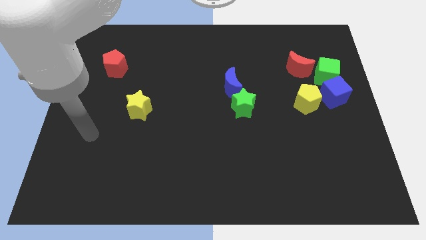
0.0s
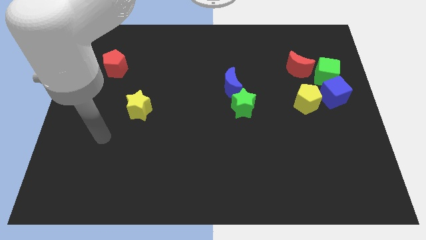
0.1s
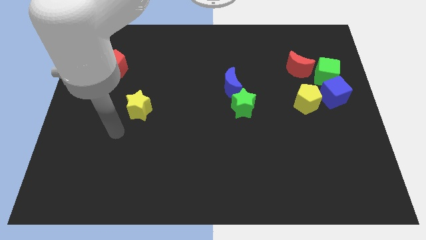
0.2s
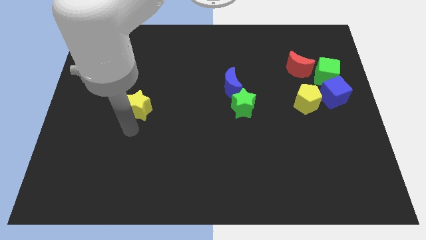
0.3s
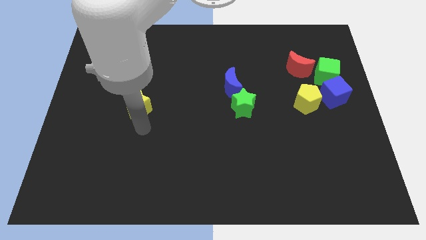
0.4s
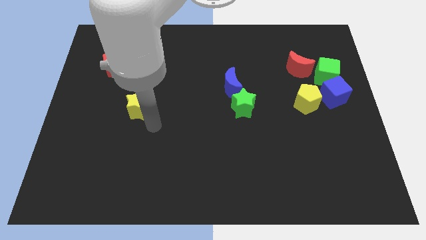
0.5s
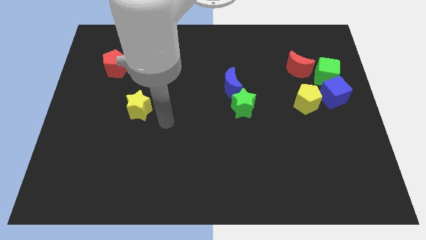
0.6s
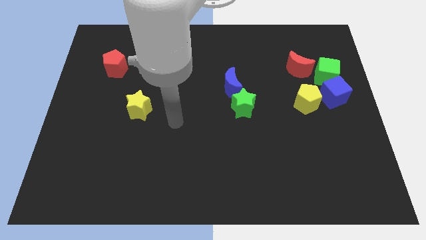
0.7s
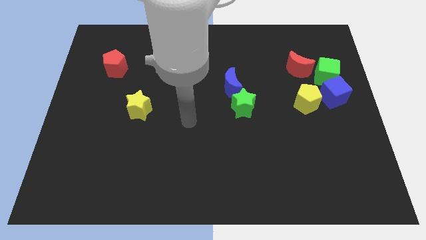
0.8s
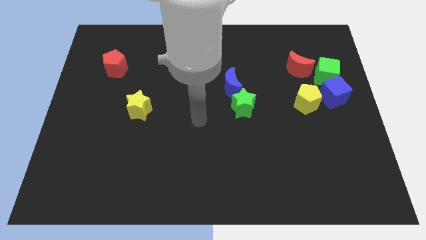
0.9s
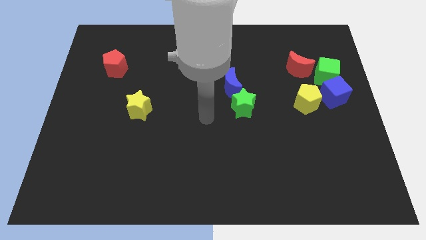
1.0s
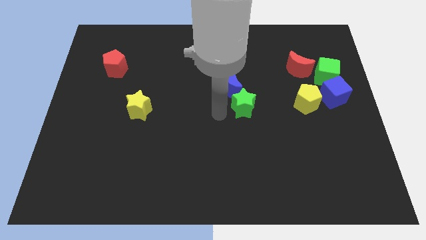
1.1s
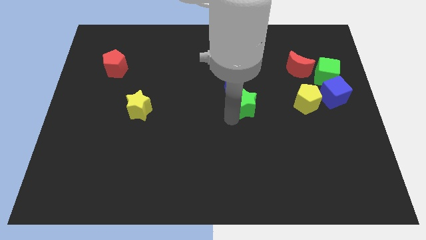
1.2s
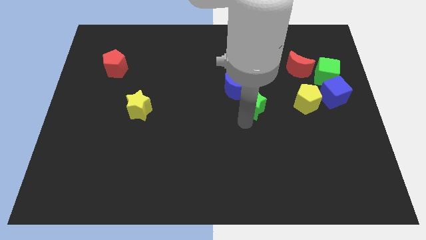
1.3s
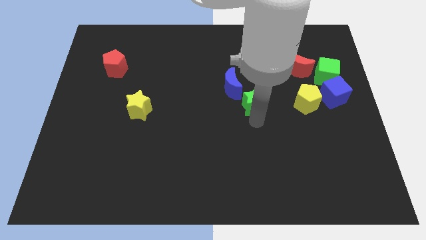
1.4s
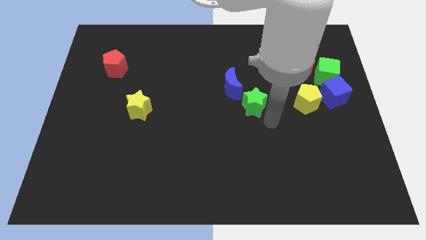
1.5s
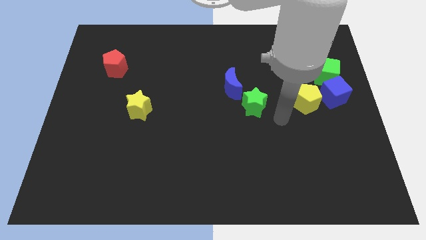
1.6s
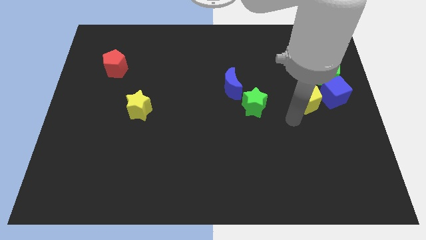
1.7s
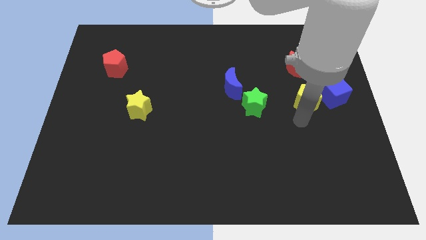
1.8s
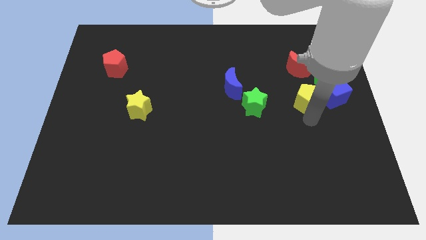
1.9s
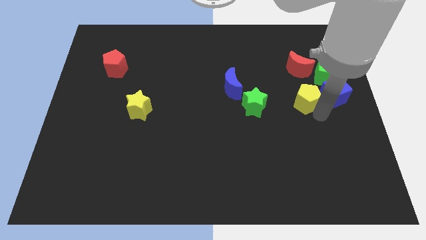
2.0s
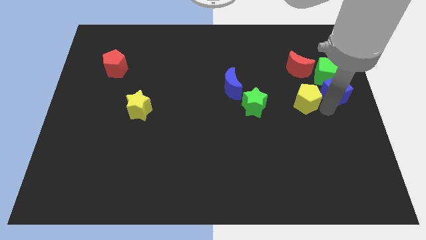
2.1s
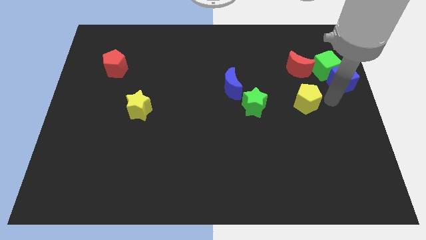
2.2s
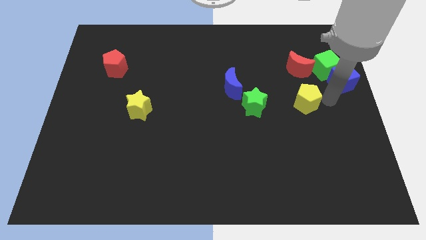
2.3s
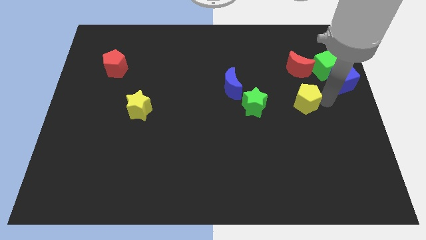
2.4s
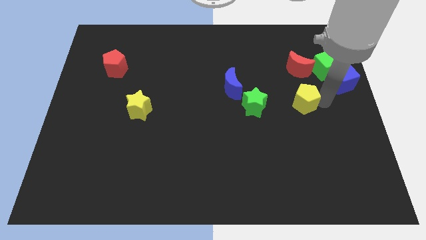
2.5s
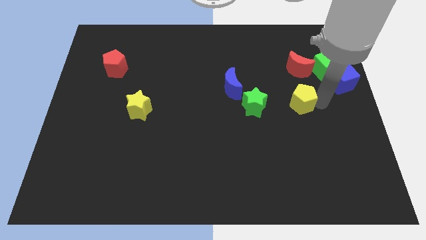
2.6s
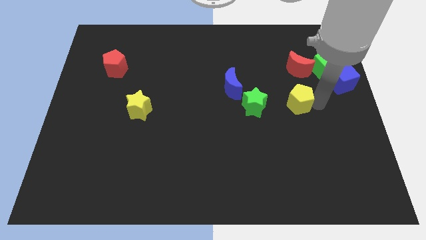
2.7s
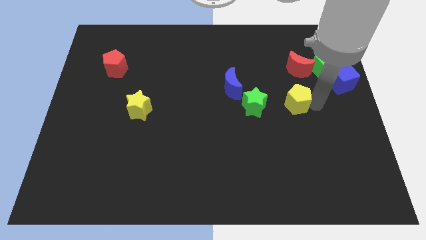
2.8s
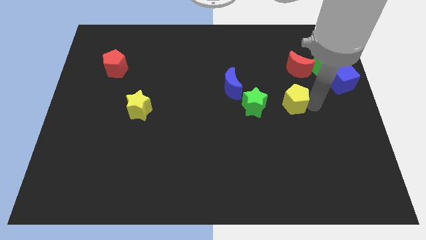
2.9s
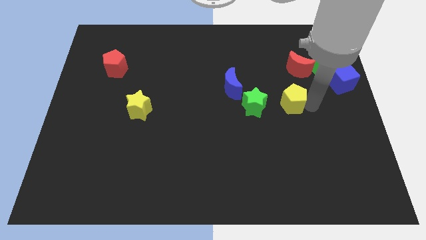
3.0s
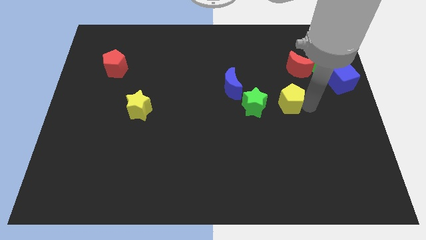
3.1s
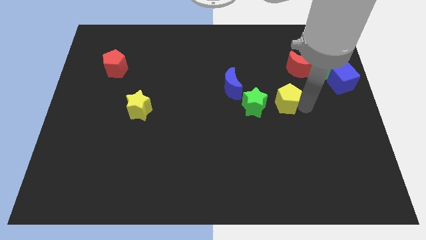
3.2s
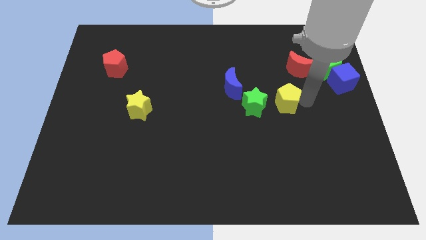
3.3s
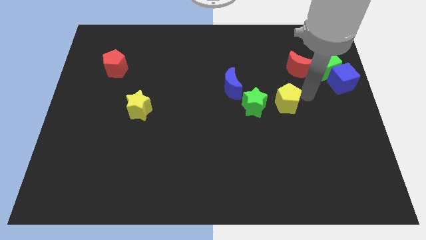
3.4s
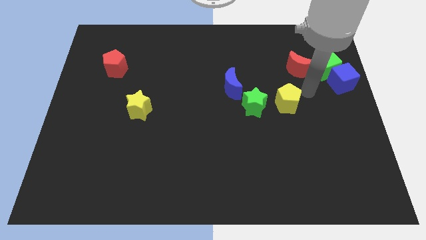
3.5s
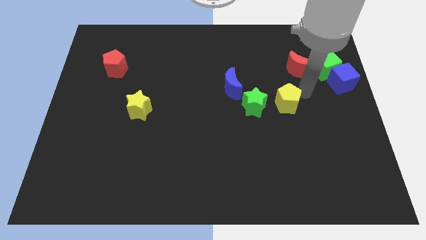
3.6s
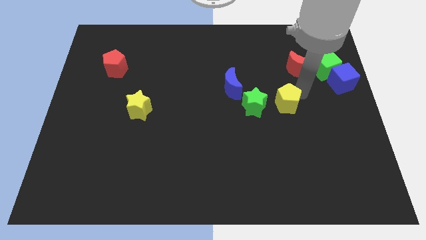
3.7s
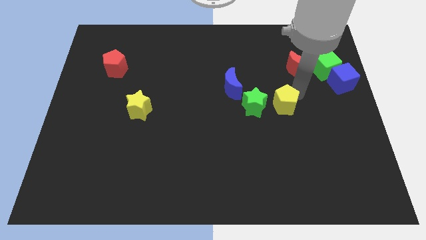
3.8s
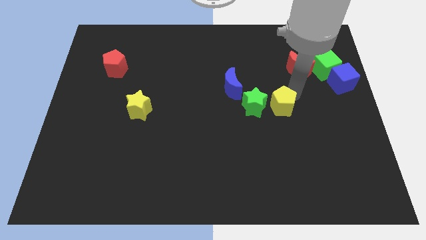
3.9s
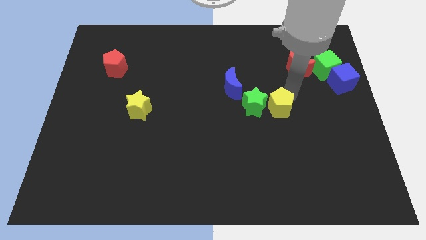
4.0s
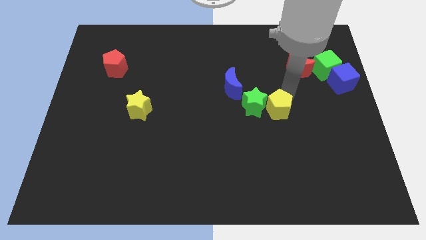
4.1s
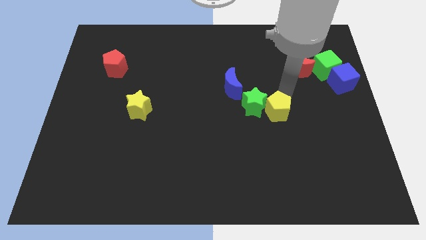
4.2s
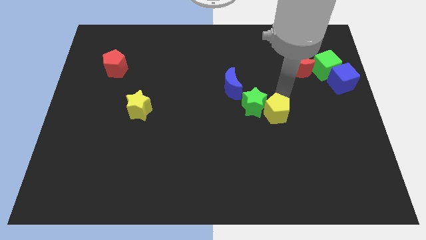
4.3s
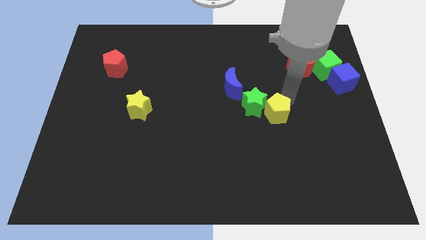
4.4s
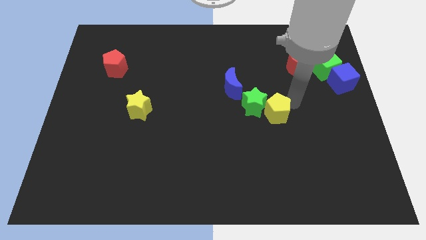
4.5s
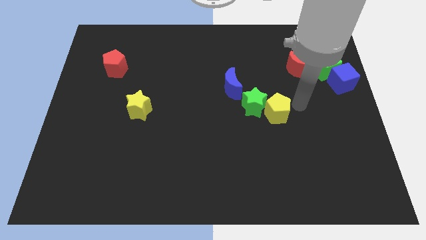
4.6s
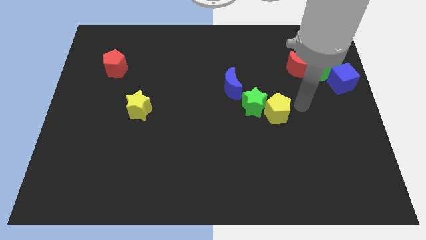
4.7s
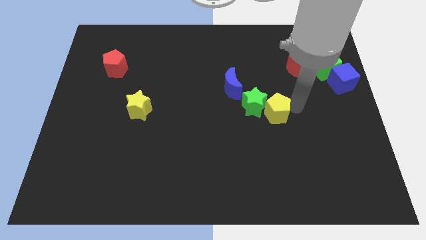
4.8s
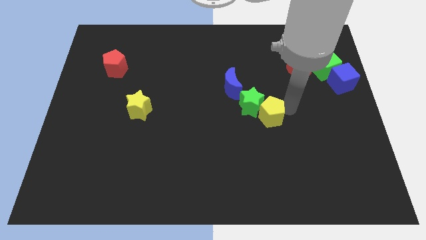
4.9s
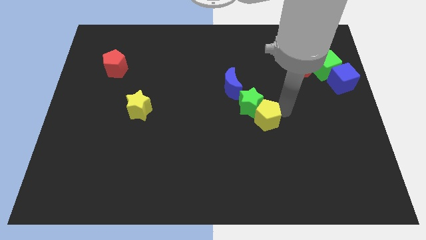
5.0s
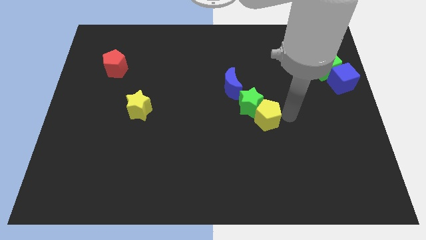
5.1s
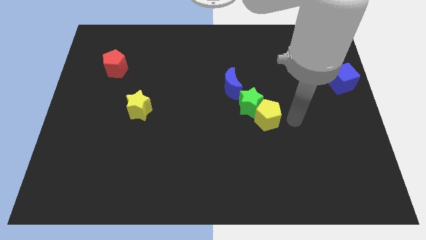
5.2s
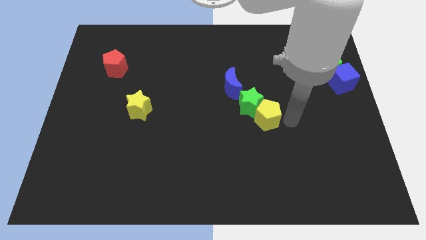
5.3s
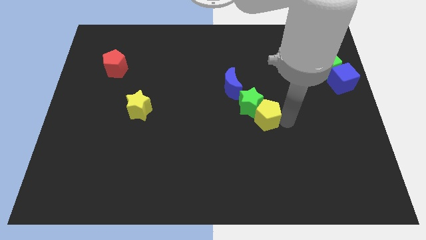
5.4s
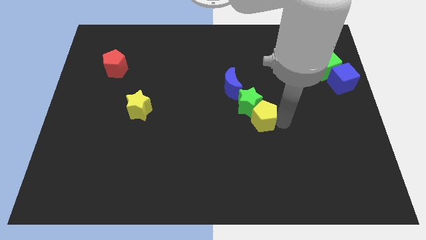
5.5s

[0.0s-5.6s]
put the yellow pentagon to the center of the board

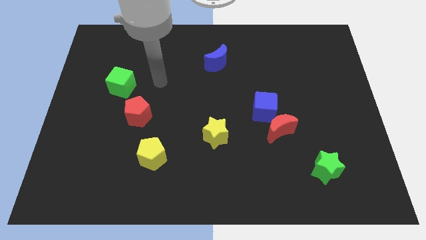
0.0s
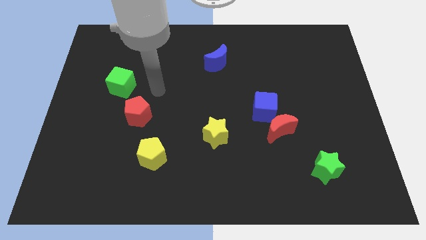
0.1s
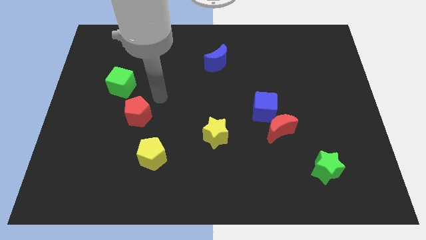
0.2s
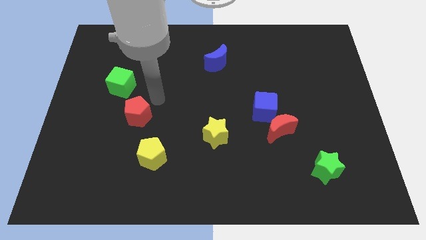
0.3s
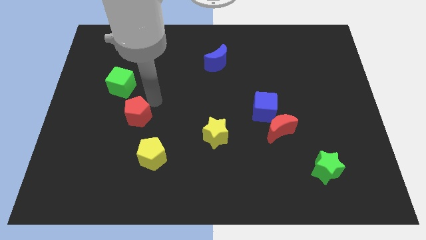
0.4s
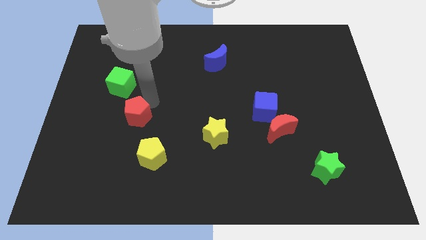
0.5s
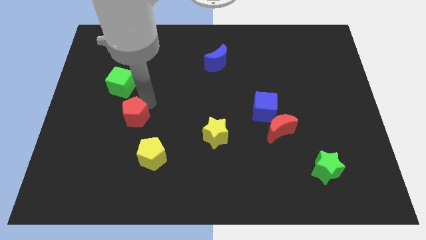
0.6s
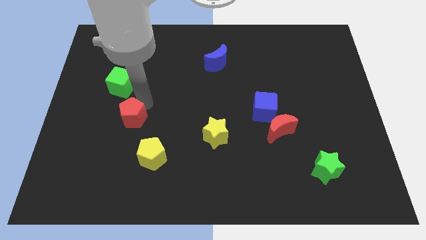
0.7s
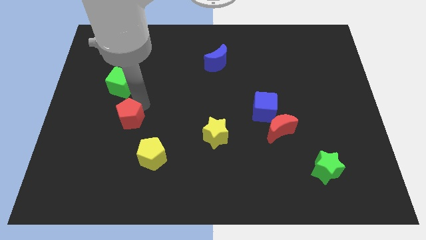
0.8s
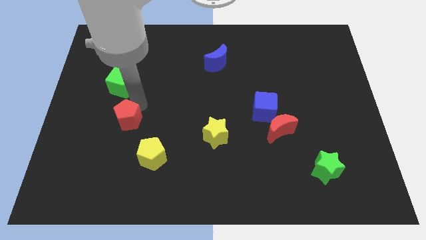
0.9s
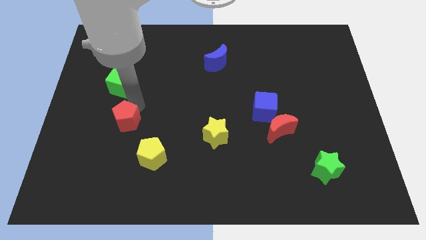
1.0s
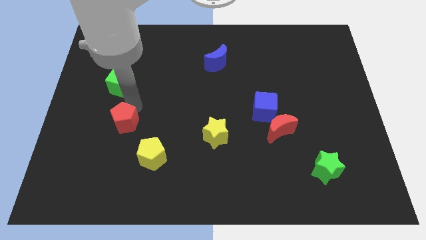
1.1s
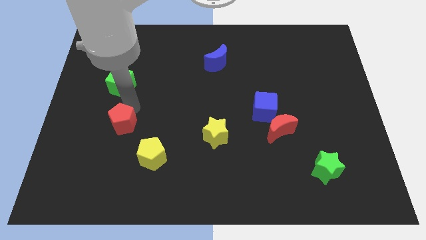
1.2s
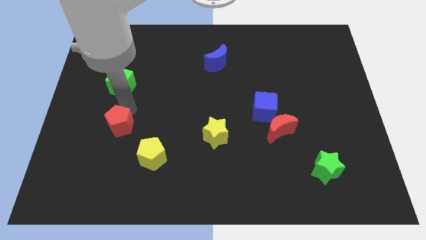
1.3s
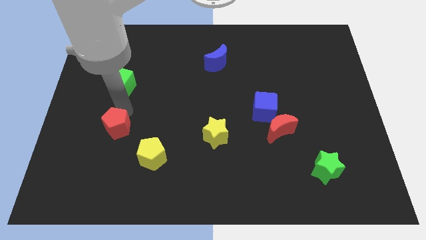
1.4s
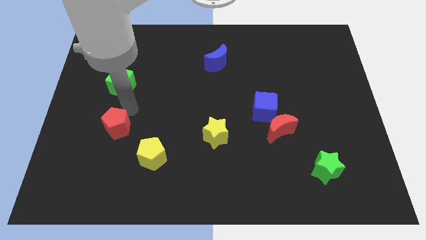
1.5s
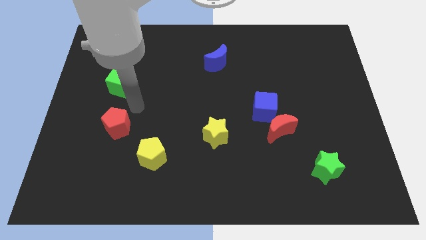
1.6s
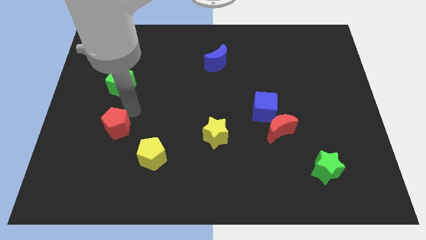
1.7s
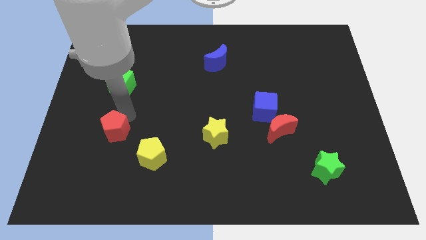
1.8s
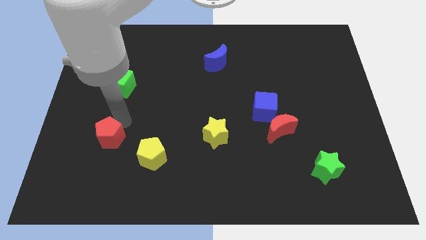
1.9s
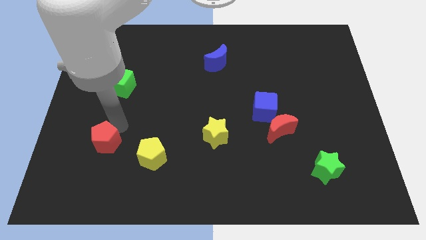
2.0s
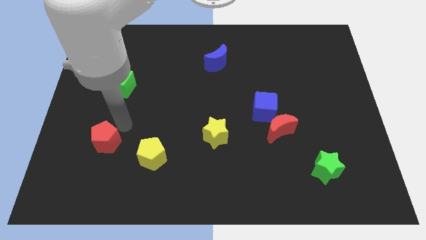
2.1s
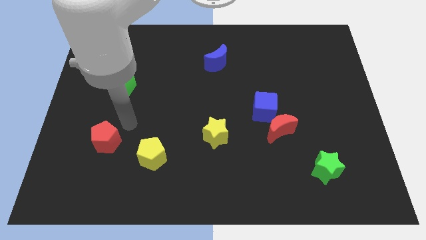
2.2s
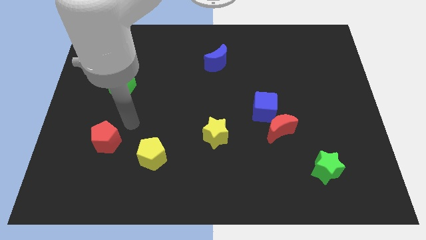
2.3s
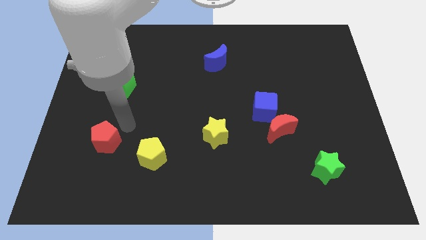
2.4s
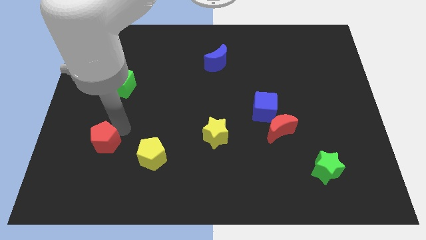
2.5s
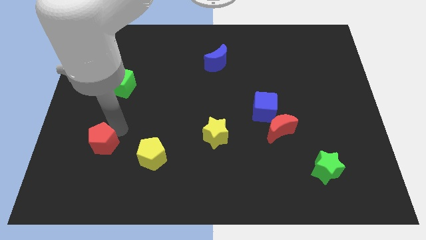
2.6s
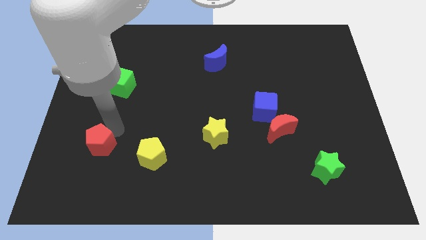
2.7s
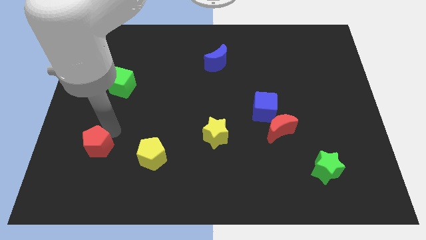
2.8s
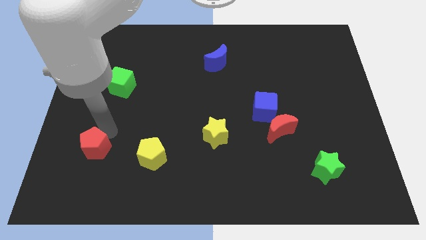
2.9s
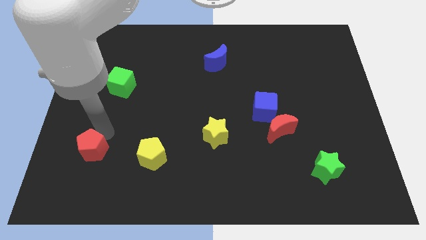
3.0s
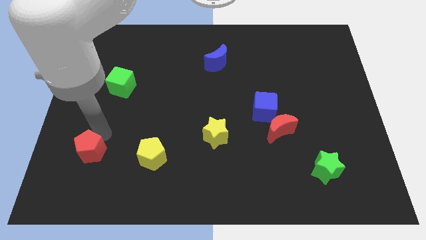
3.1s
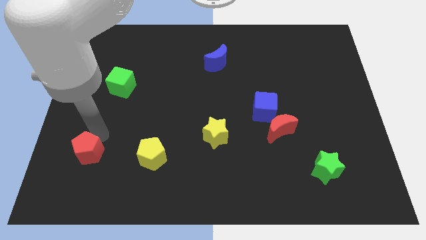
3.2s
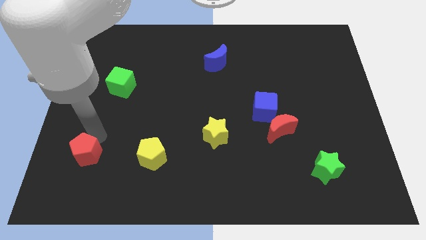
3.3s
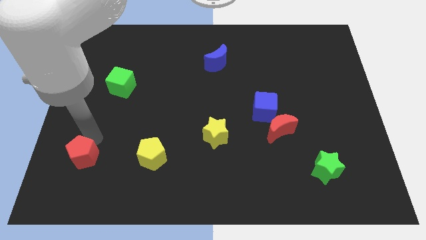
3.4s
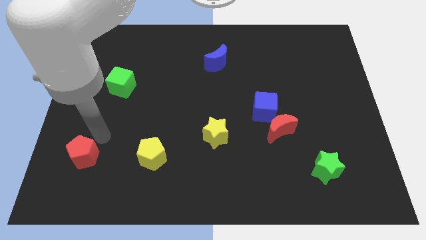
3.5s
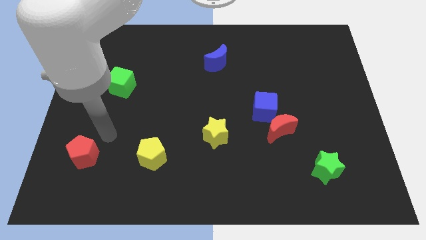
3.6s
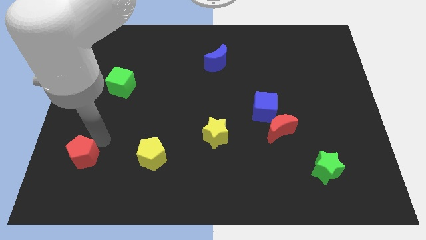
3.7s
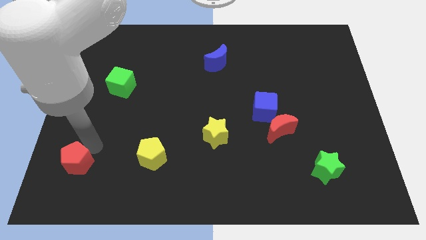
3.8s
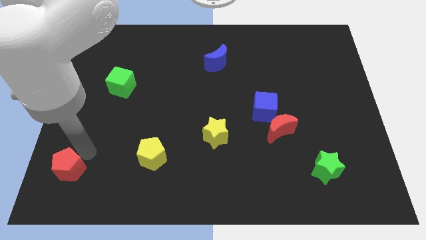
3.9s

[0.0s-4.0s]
move the red pentagon to the lower left corner
